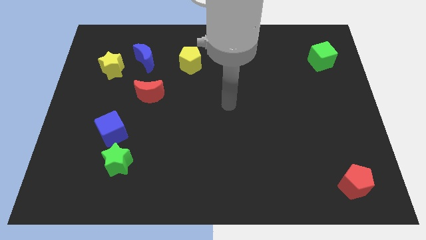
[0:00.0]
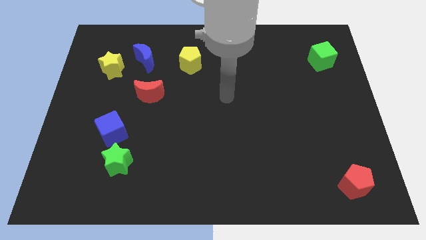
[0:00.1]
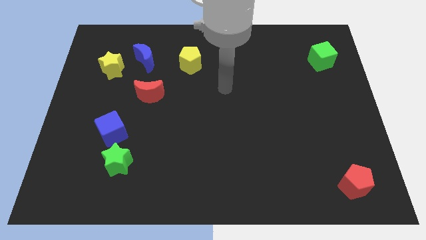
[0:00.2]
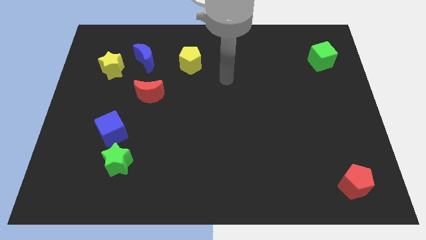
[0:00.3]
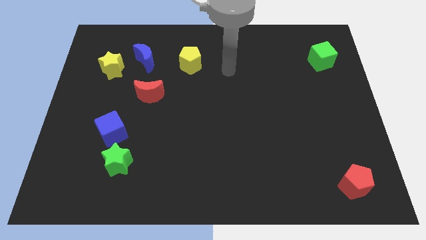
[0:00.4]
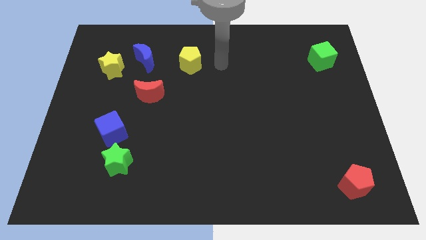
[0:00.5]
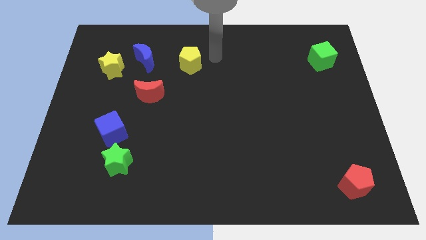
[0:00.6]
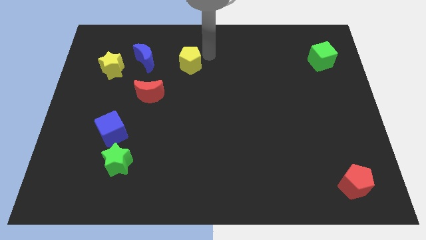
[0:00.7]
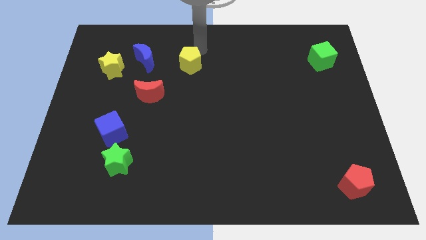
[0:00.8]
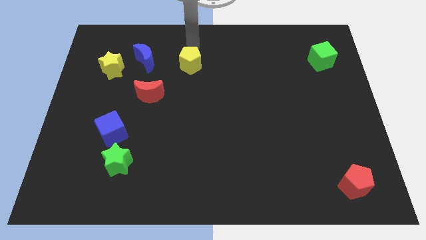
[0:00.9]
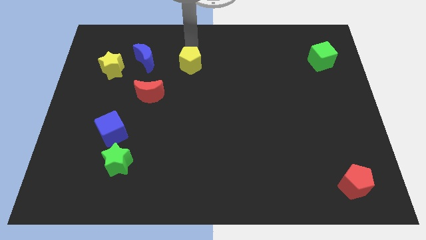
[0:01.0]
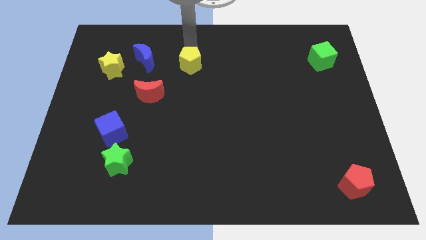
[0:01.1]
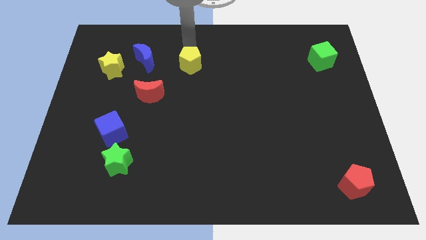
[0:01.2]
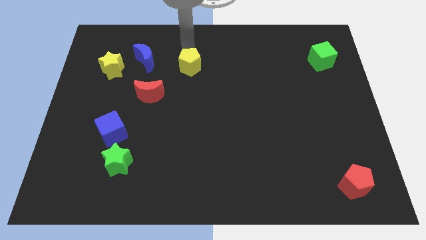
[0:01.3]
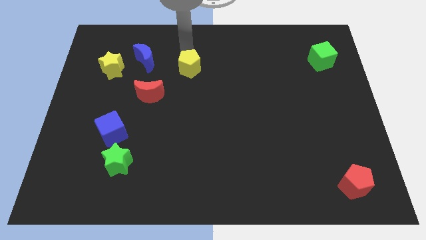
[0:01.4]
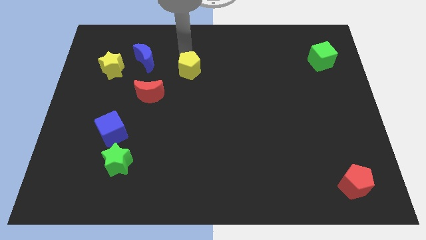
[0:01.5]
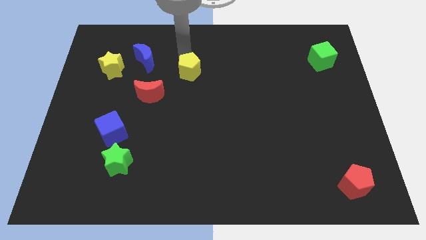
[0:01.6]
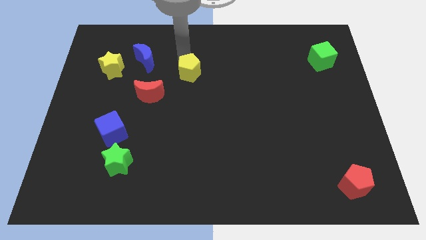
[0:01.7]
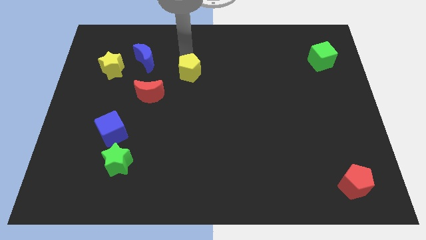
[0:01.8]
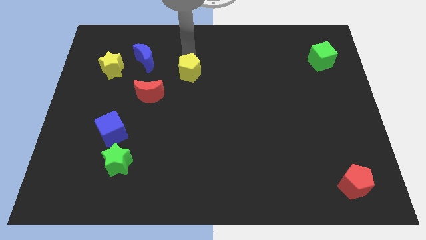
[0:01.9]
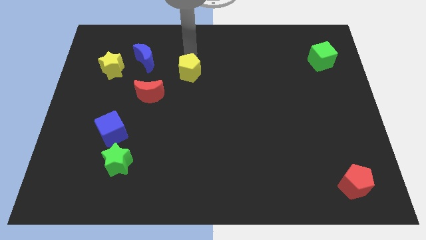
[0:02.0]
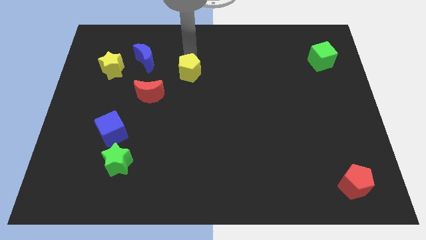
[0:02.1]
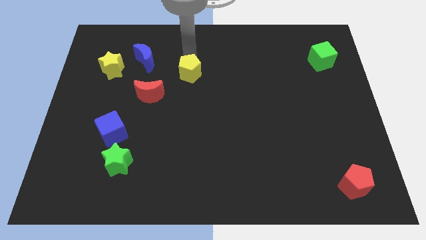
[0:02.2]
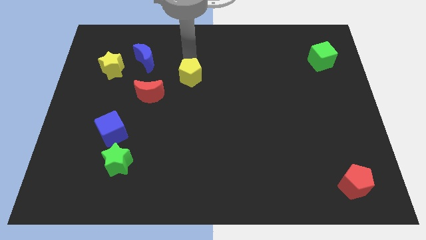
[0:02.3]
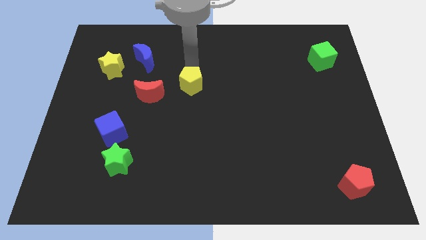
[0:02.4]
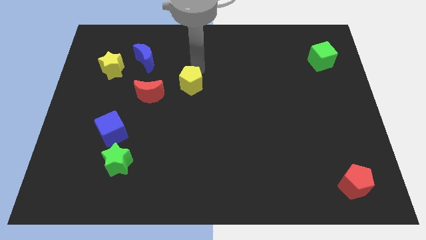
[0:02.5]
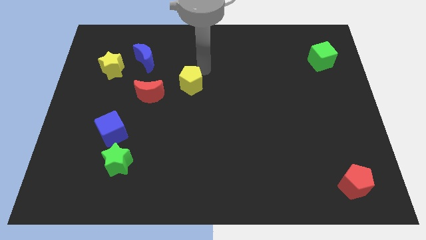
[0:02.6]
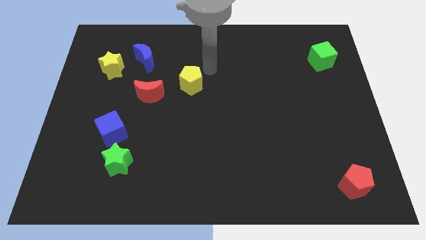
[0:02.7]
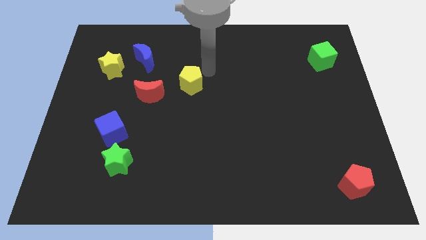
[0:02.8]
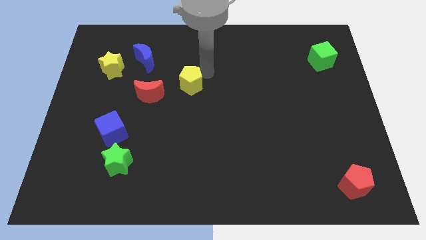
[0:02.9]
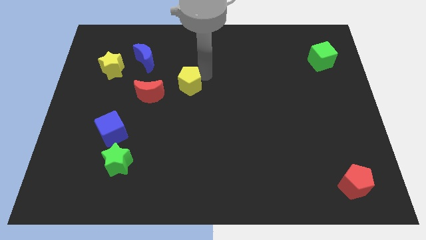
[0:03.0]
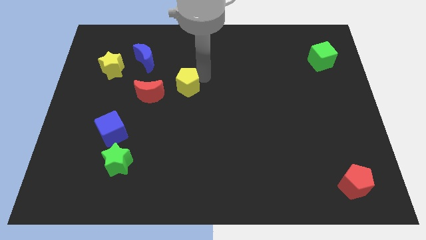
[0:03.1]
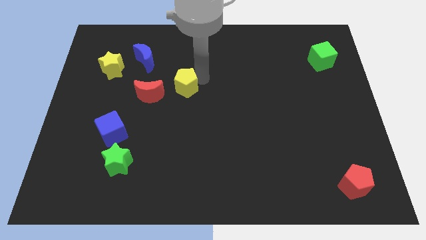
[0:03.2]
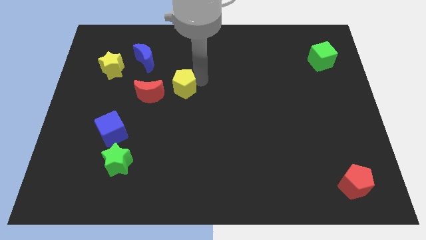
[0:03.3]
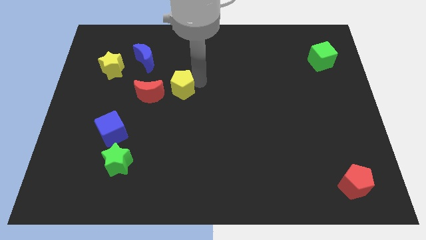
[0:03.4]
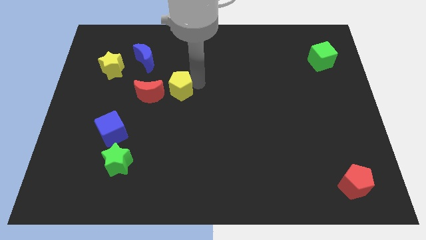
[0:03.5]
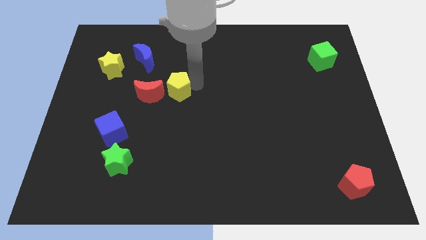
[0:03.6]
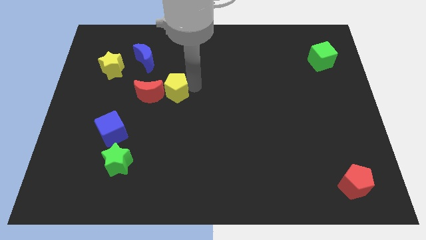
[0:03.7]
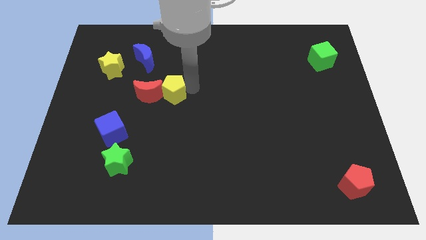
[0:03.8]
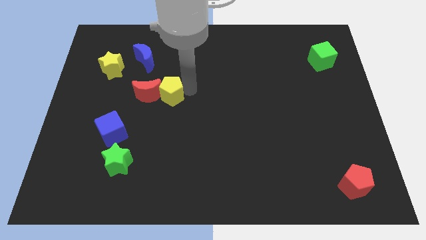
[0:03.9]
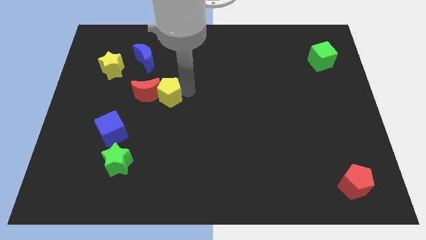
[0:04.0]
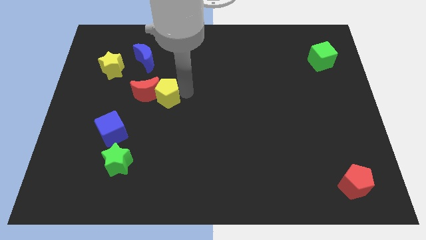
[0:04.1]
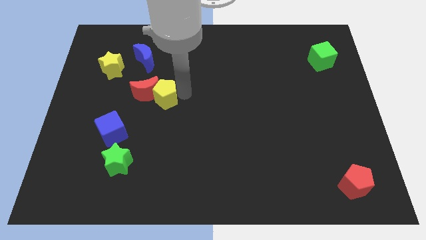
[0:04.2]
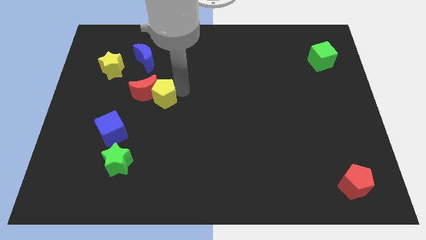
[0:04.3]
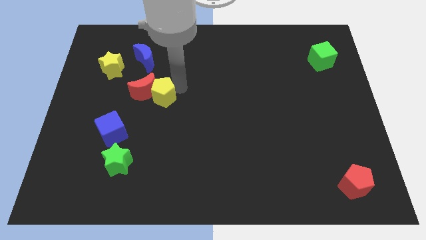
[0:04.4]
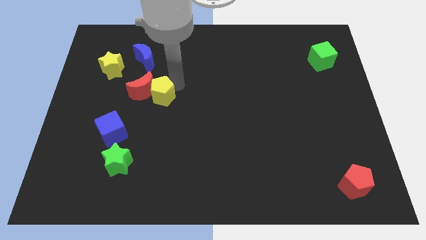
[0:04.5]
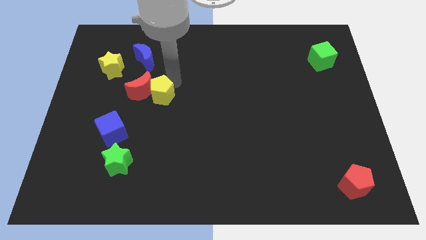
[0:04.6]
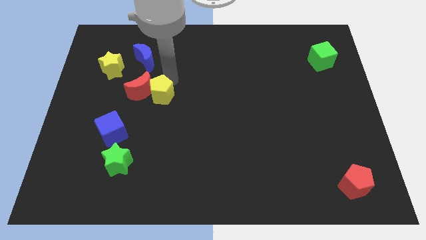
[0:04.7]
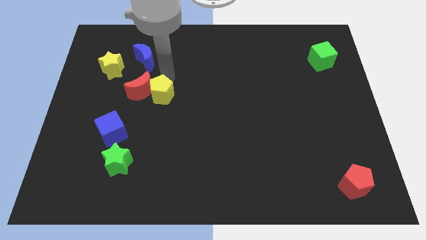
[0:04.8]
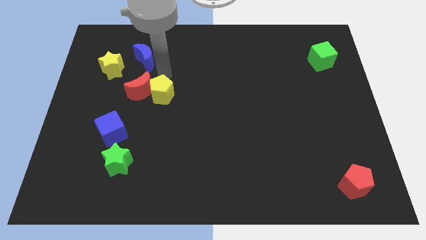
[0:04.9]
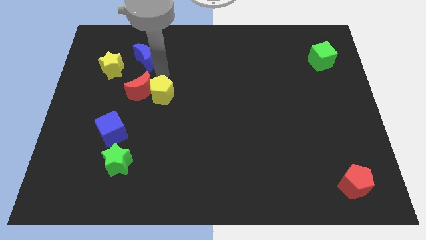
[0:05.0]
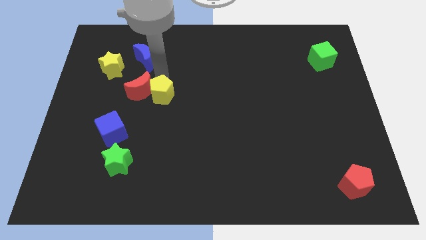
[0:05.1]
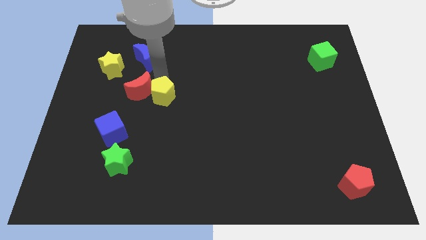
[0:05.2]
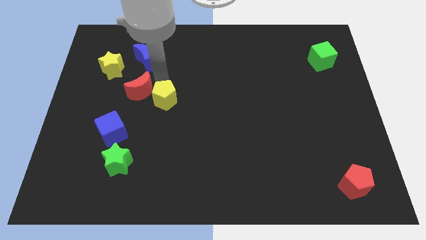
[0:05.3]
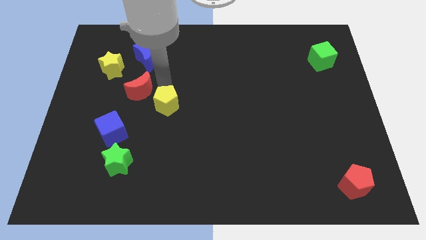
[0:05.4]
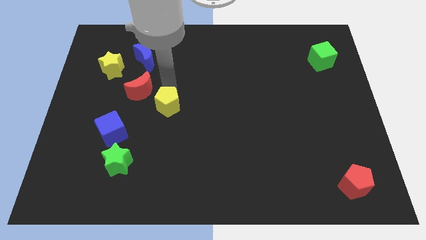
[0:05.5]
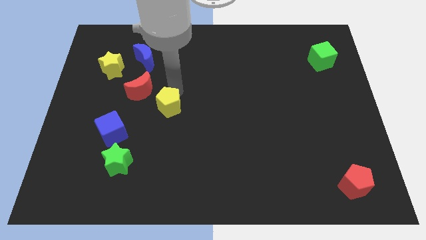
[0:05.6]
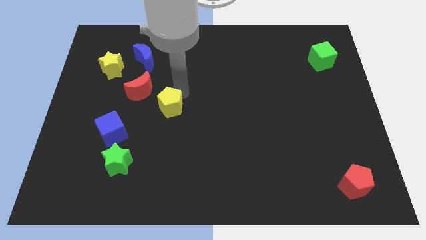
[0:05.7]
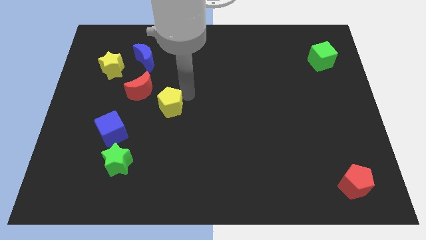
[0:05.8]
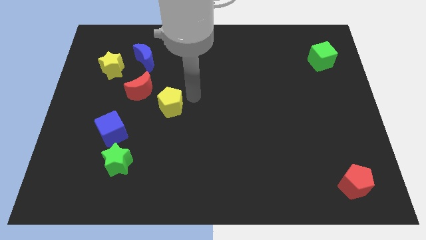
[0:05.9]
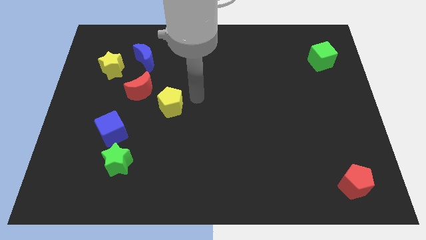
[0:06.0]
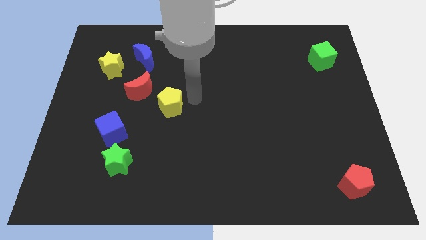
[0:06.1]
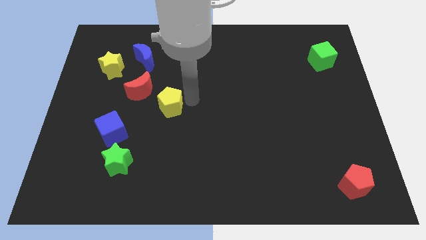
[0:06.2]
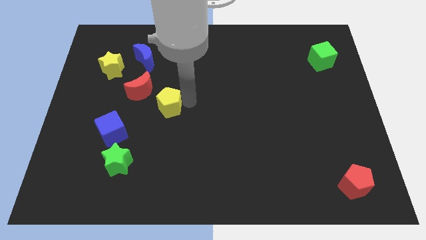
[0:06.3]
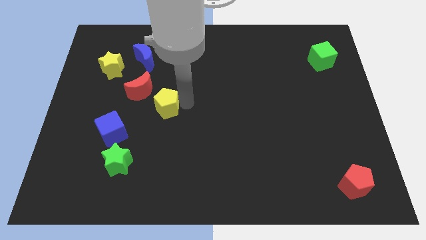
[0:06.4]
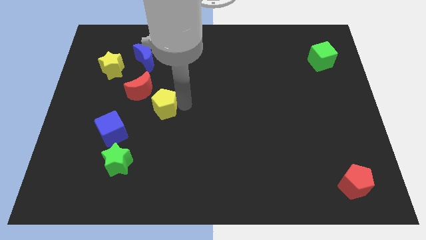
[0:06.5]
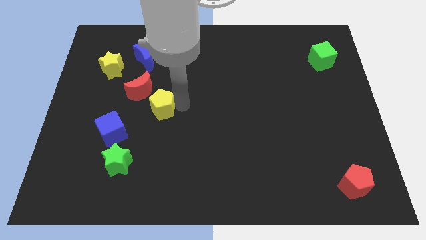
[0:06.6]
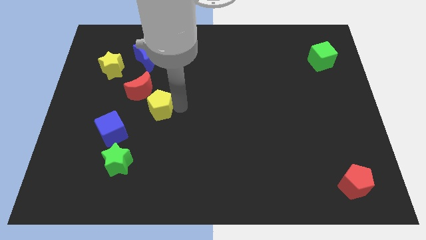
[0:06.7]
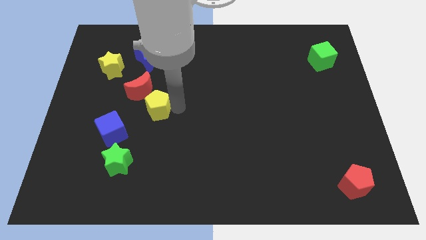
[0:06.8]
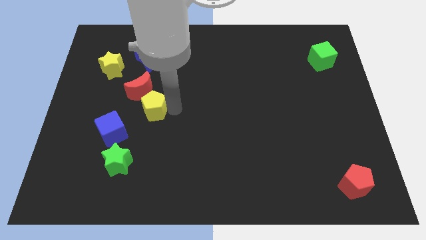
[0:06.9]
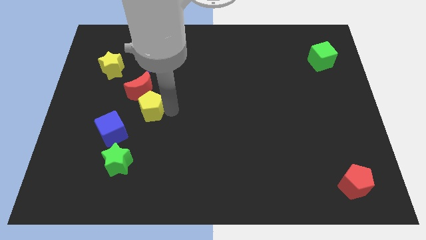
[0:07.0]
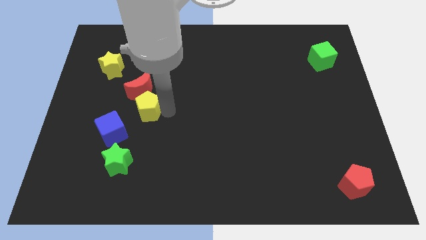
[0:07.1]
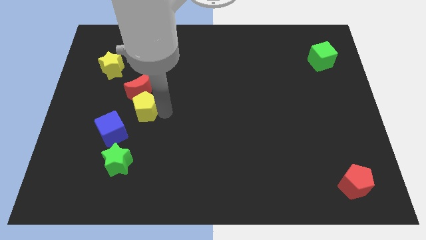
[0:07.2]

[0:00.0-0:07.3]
move the yellow pentagon to the top side of the green star
